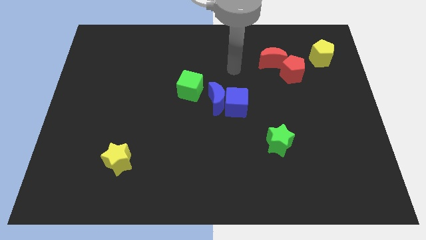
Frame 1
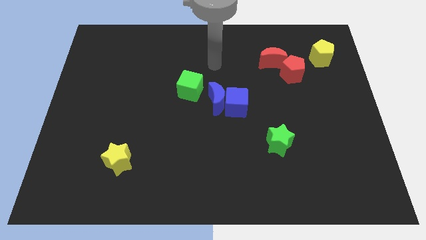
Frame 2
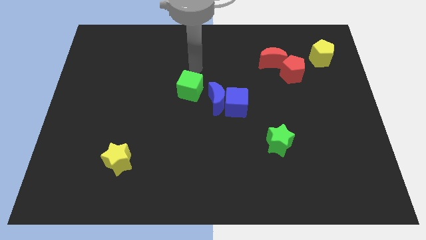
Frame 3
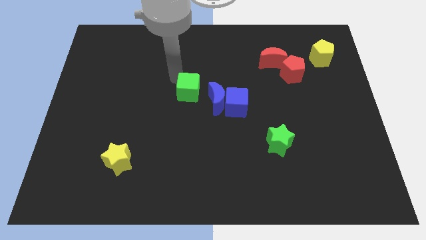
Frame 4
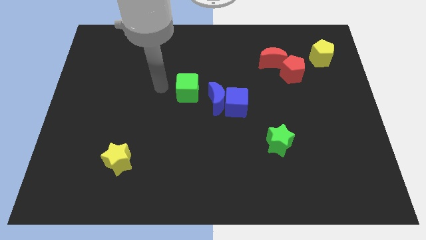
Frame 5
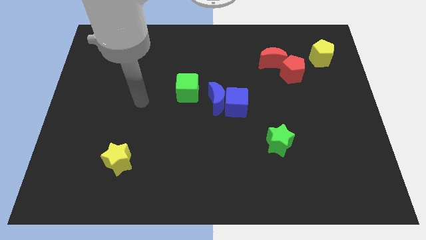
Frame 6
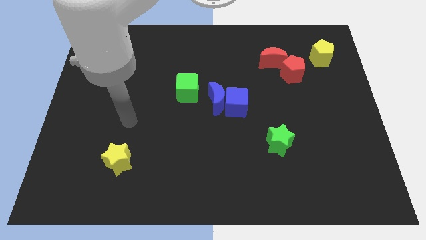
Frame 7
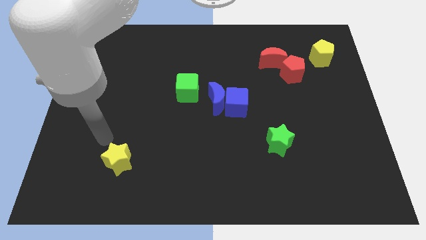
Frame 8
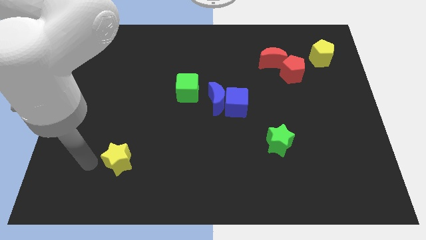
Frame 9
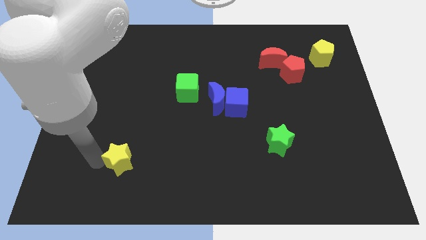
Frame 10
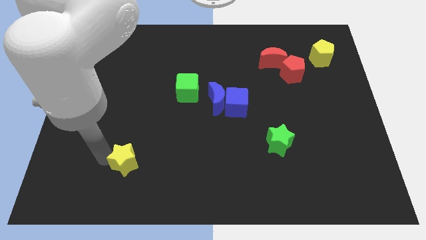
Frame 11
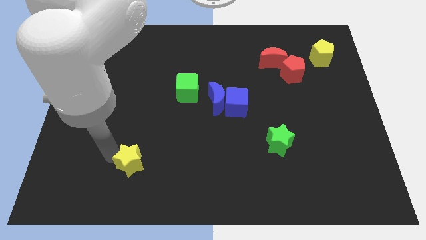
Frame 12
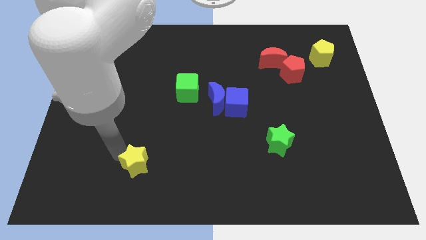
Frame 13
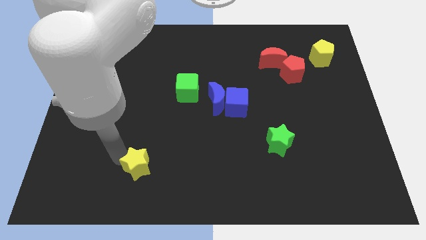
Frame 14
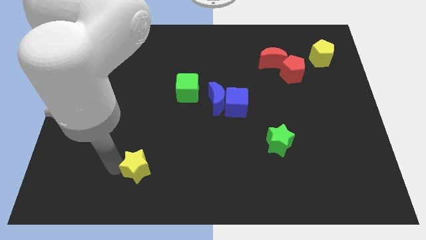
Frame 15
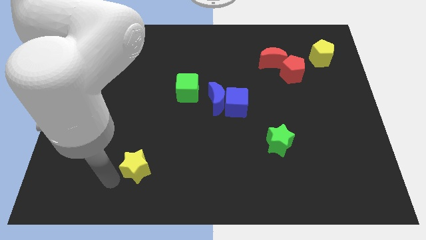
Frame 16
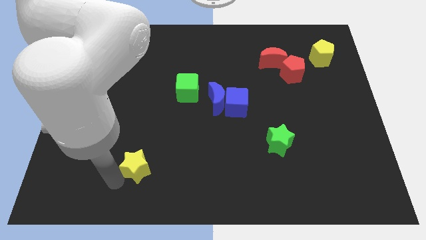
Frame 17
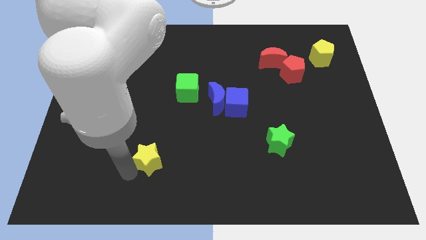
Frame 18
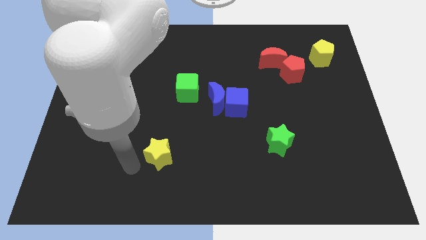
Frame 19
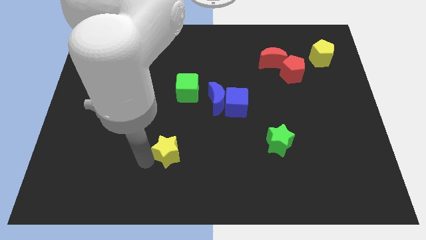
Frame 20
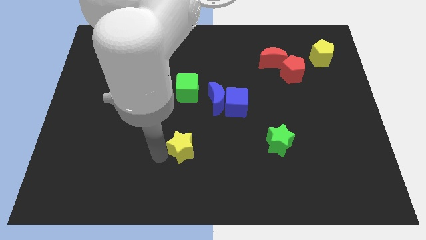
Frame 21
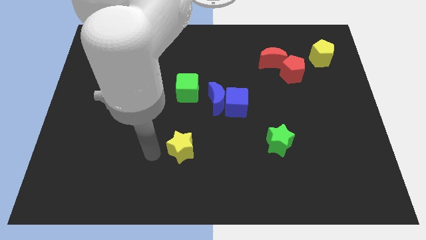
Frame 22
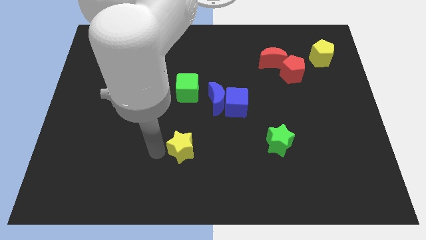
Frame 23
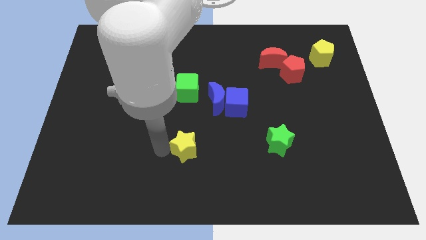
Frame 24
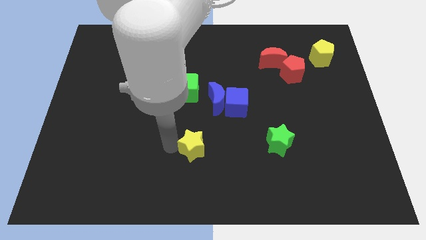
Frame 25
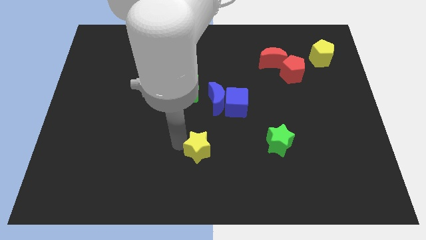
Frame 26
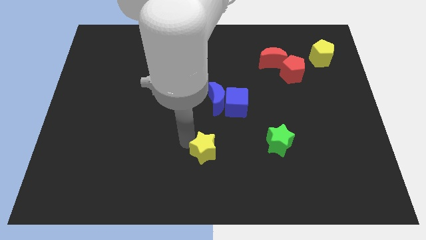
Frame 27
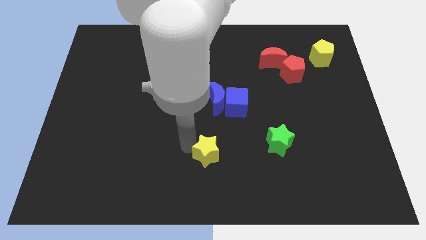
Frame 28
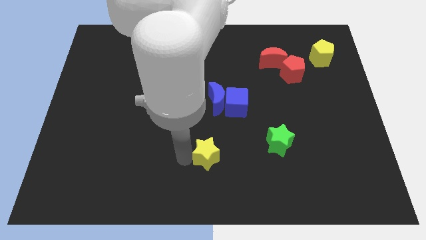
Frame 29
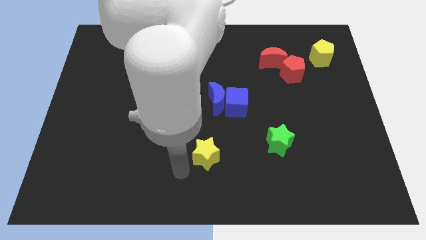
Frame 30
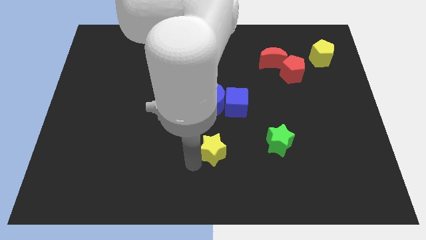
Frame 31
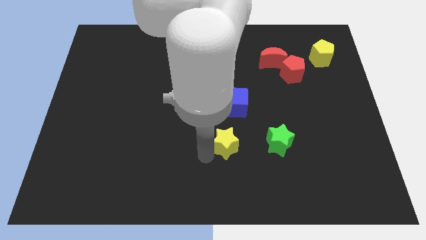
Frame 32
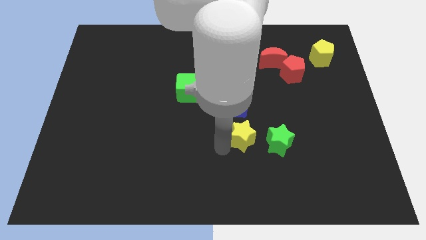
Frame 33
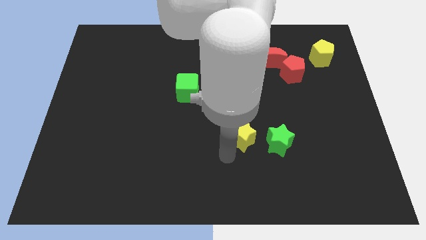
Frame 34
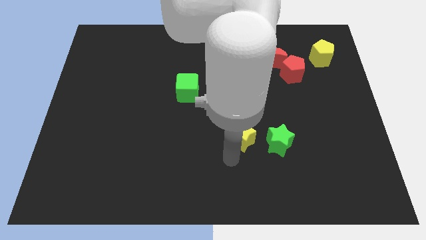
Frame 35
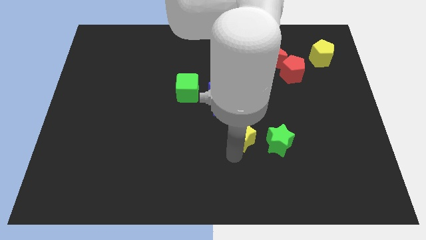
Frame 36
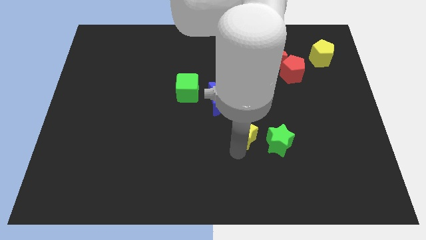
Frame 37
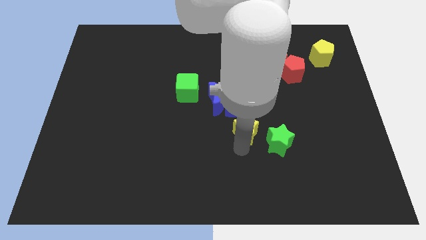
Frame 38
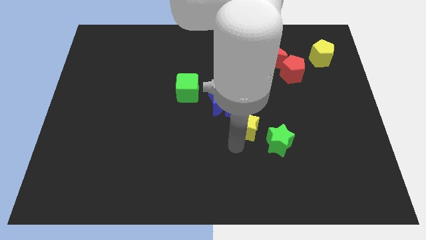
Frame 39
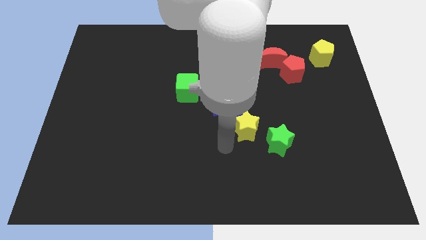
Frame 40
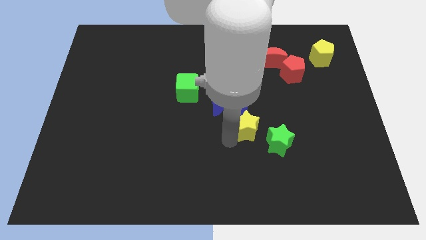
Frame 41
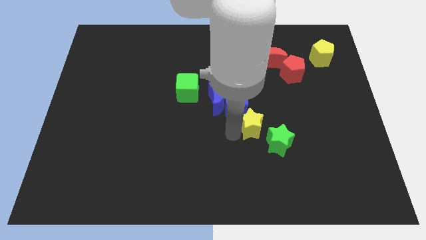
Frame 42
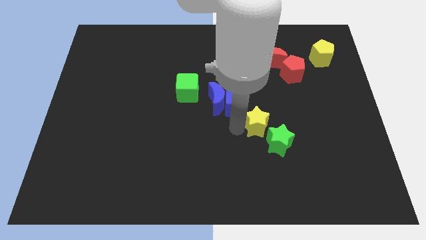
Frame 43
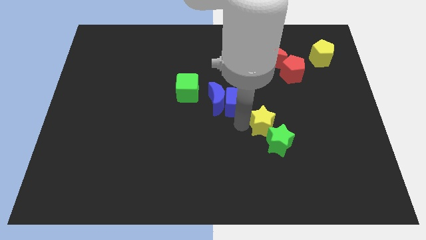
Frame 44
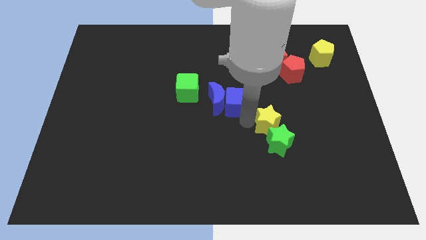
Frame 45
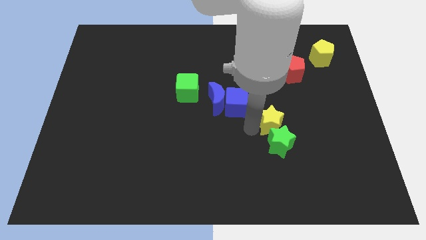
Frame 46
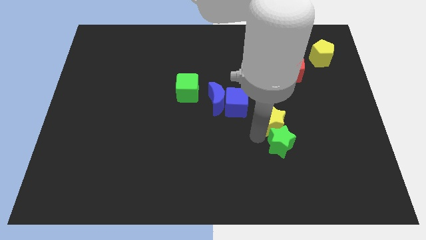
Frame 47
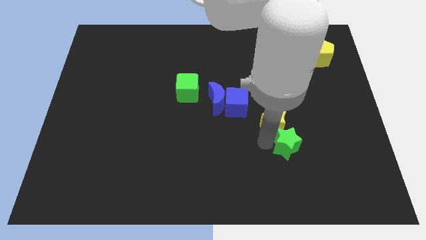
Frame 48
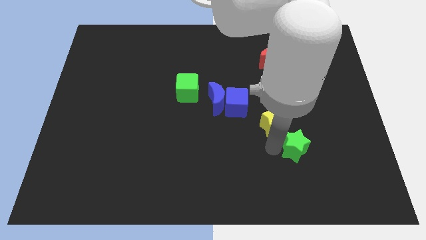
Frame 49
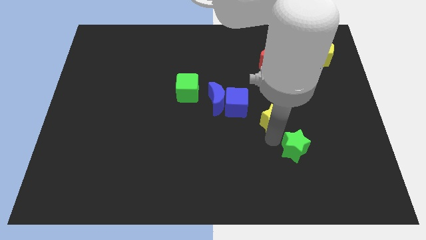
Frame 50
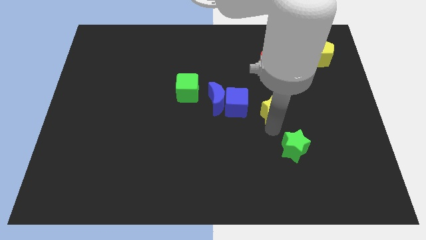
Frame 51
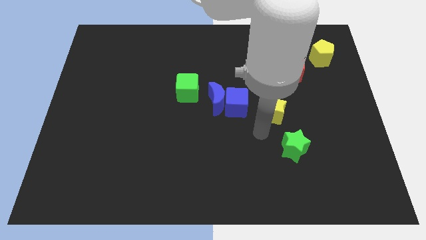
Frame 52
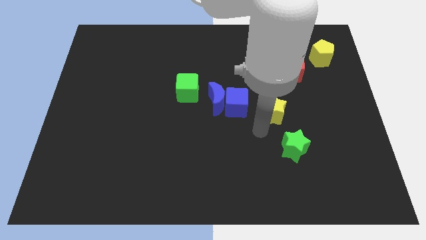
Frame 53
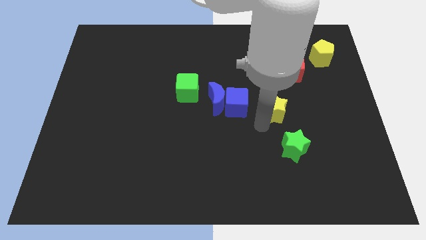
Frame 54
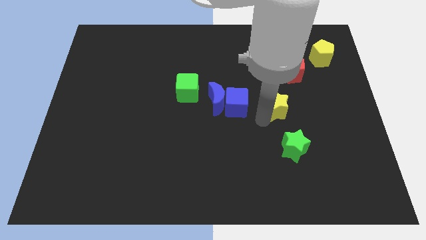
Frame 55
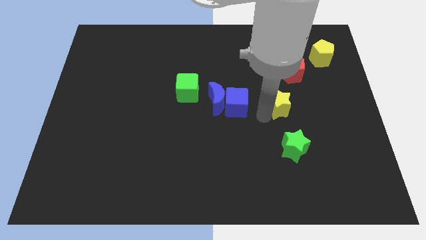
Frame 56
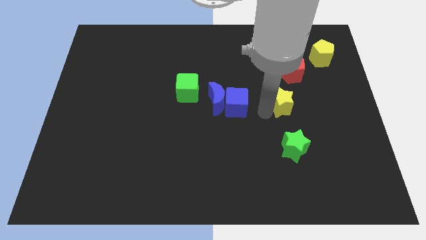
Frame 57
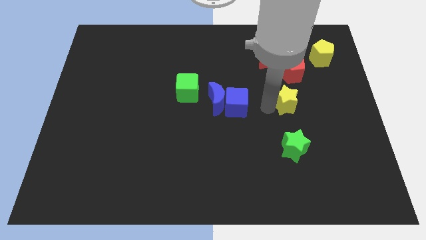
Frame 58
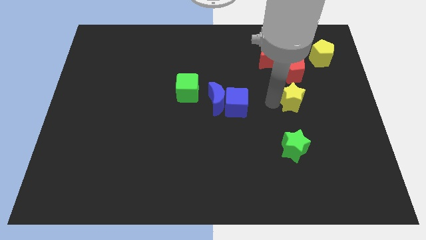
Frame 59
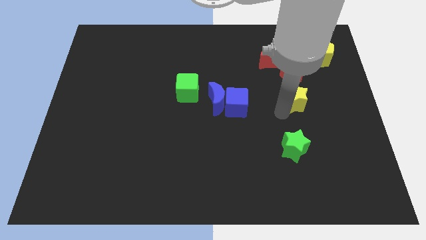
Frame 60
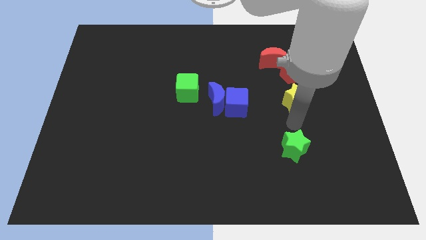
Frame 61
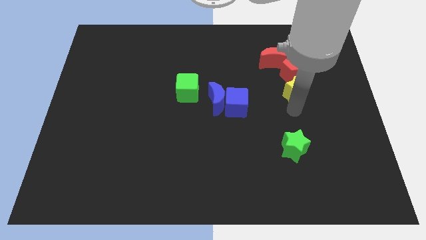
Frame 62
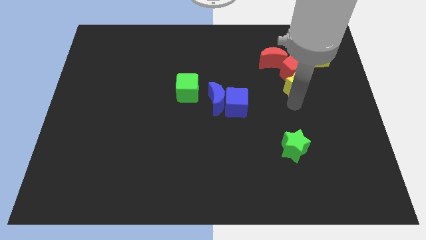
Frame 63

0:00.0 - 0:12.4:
put the yellow star close to the red pentagon
